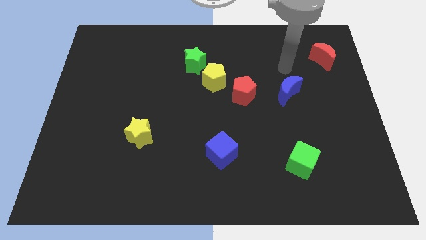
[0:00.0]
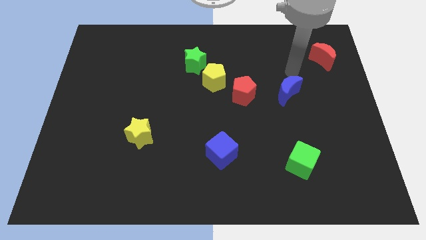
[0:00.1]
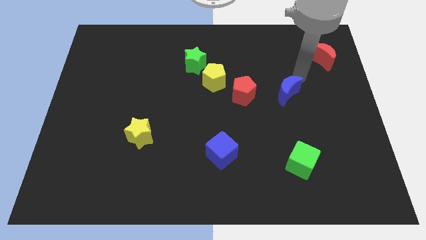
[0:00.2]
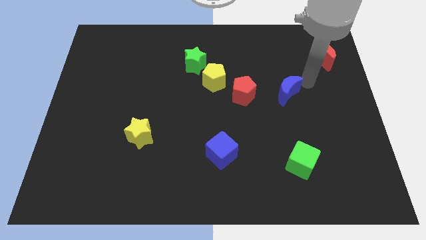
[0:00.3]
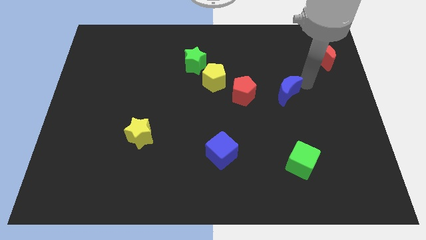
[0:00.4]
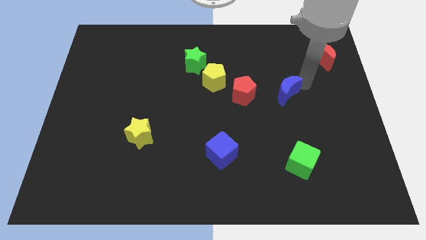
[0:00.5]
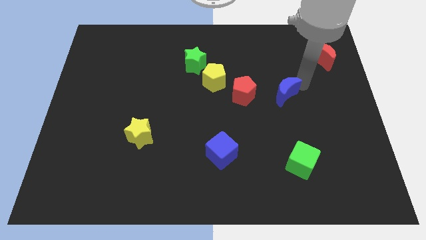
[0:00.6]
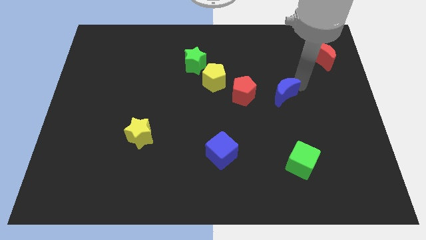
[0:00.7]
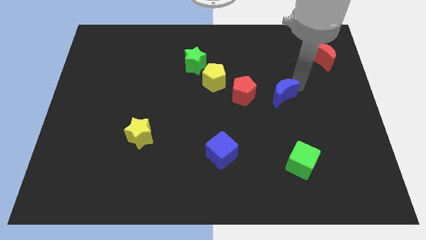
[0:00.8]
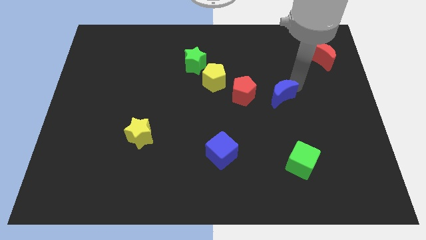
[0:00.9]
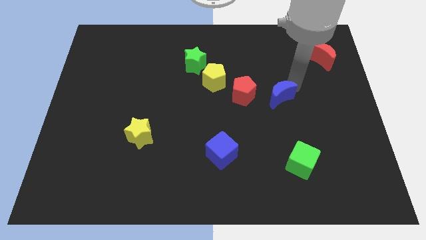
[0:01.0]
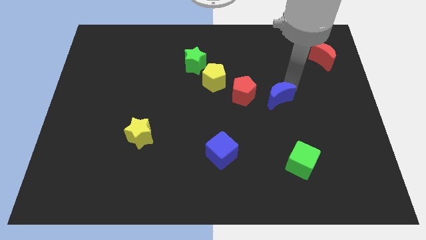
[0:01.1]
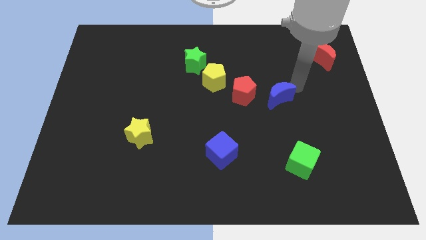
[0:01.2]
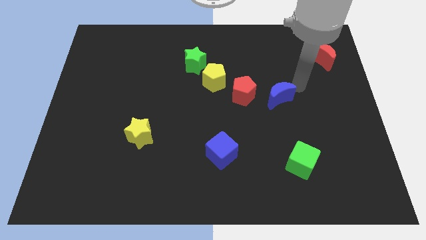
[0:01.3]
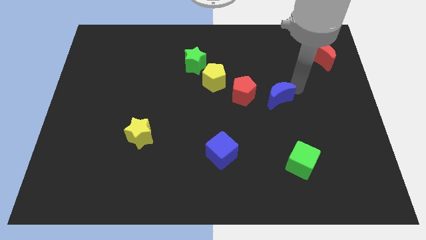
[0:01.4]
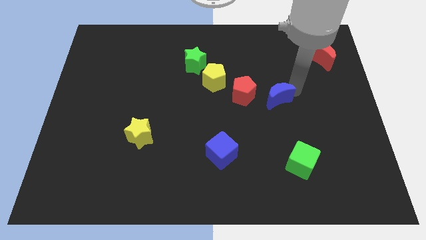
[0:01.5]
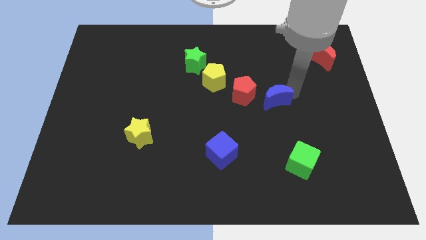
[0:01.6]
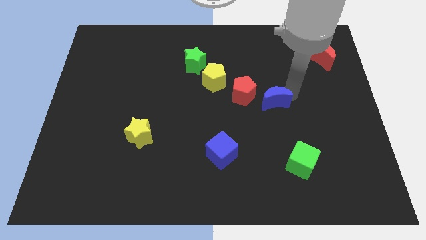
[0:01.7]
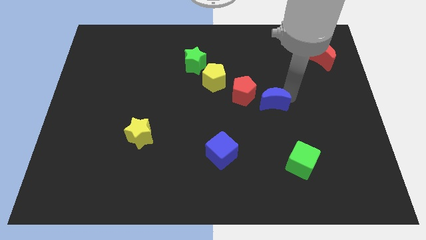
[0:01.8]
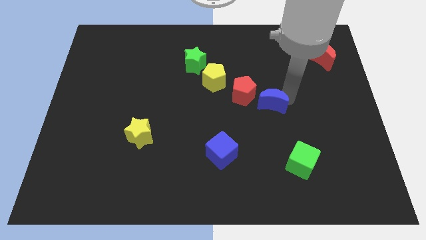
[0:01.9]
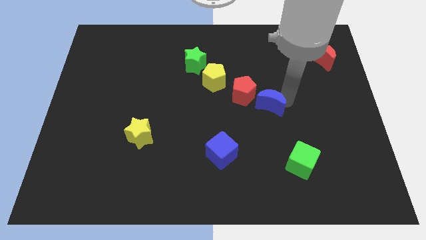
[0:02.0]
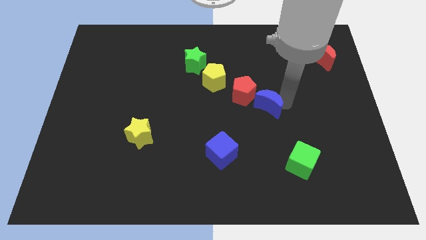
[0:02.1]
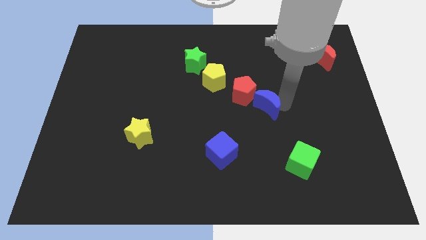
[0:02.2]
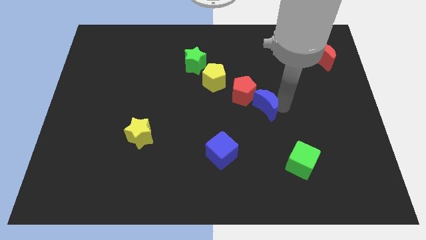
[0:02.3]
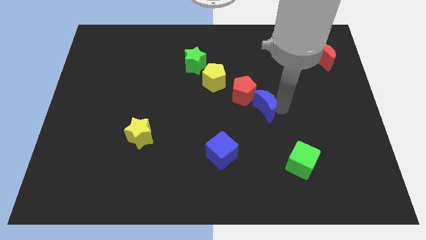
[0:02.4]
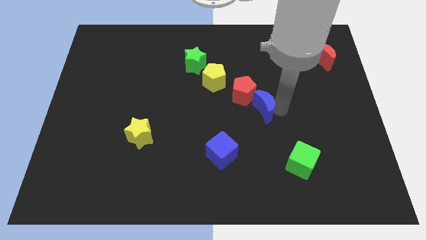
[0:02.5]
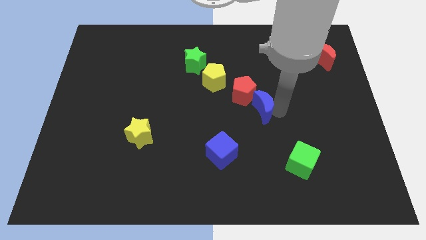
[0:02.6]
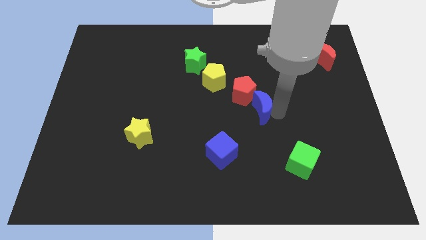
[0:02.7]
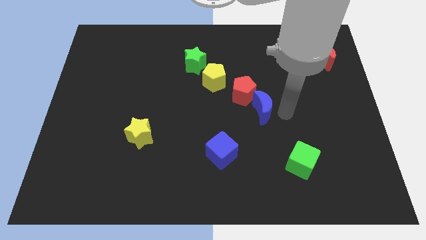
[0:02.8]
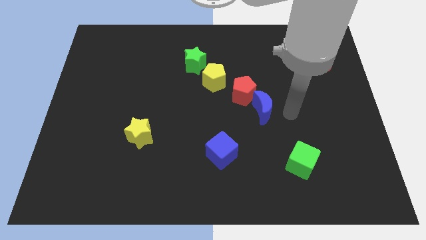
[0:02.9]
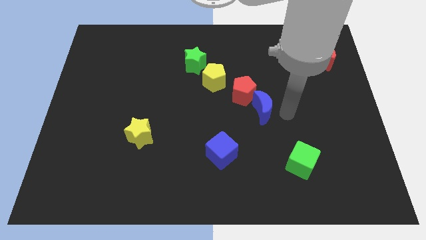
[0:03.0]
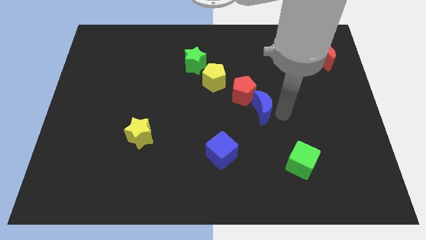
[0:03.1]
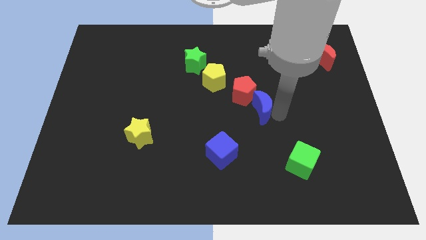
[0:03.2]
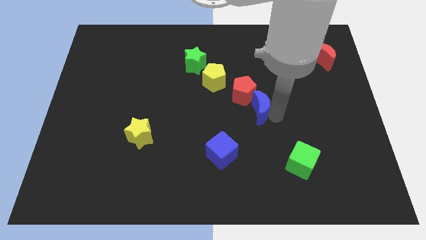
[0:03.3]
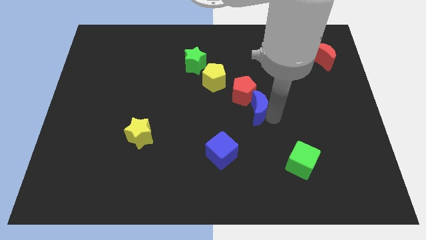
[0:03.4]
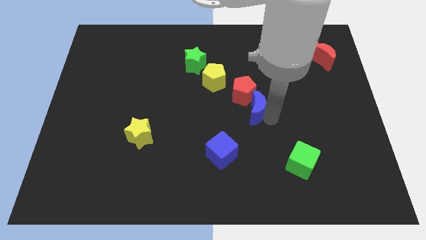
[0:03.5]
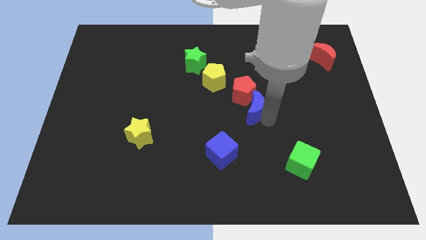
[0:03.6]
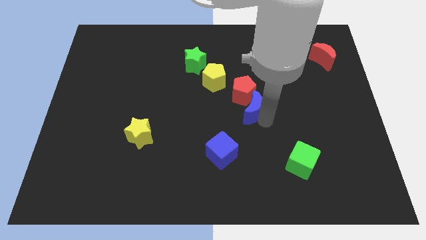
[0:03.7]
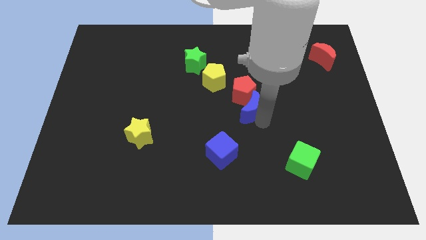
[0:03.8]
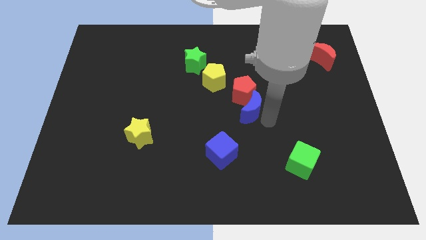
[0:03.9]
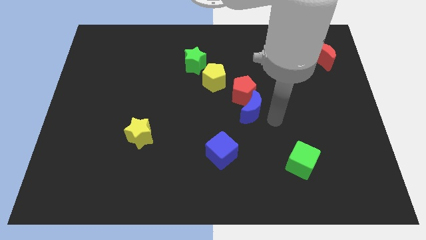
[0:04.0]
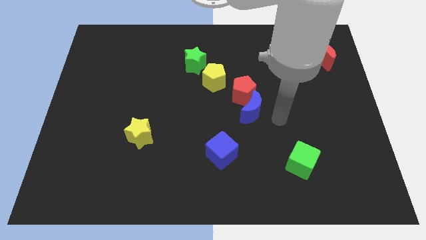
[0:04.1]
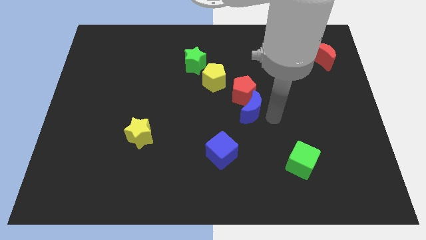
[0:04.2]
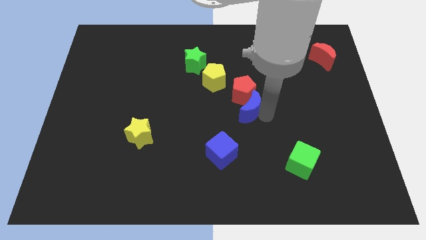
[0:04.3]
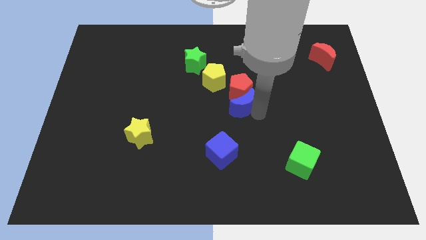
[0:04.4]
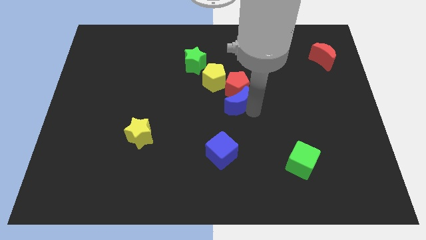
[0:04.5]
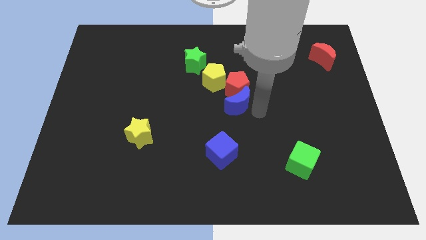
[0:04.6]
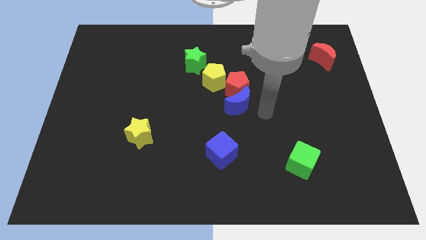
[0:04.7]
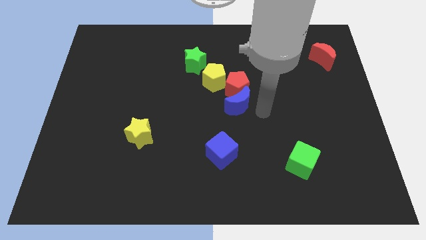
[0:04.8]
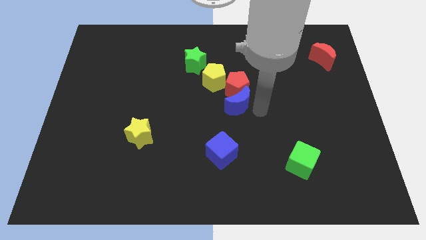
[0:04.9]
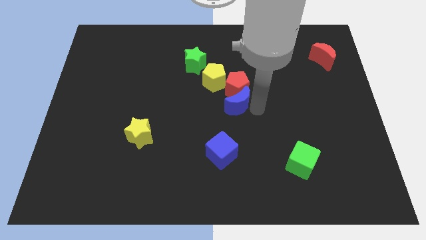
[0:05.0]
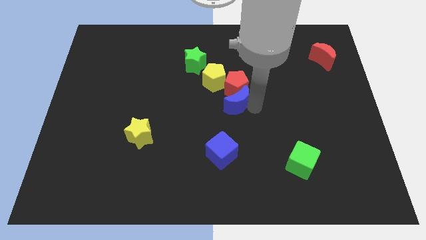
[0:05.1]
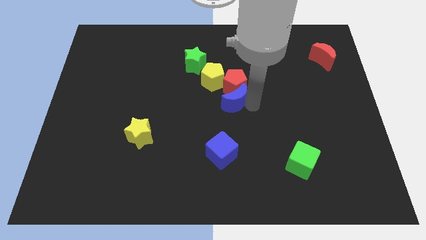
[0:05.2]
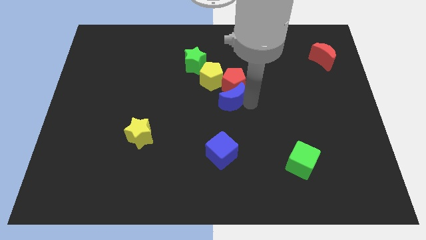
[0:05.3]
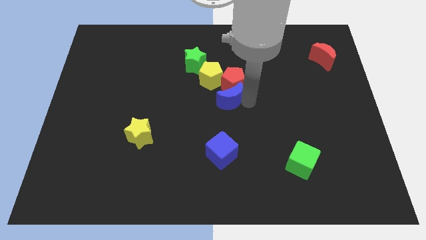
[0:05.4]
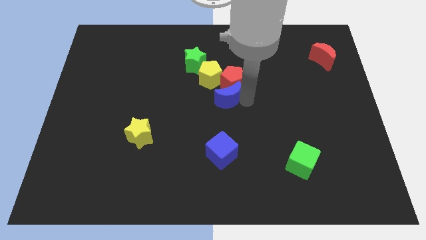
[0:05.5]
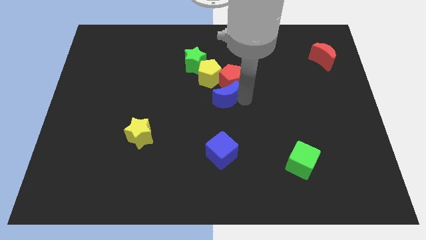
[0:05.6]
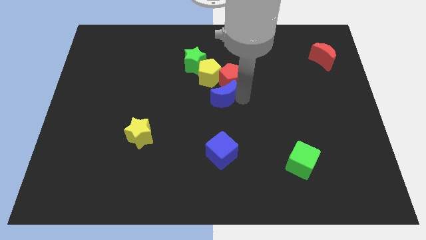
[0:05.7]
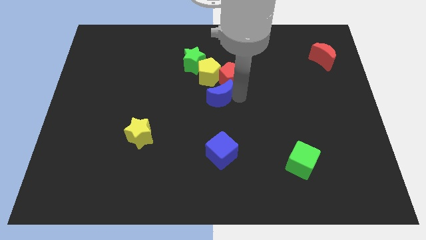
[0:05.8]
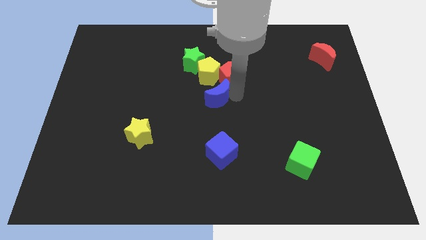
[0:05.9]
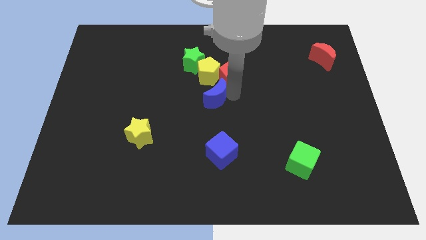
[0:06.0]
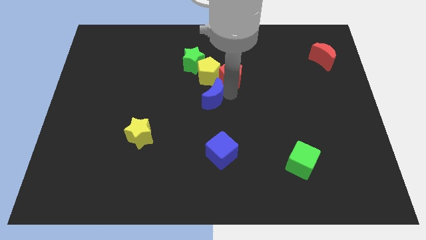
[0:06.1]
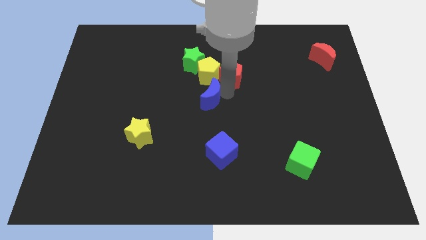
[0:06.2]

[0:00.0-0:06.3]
put the blue moon to the bottom side of the green star
